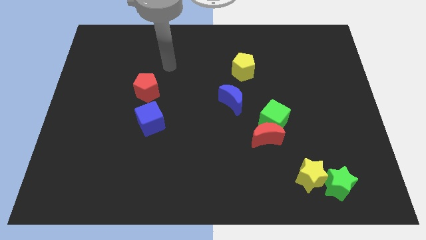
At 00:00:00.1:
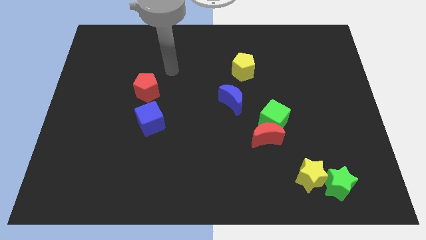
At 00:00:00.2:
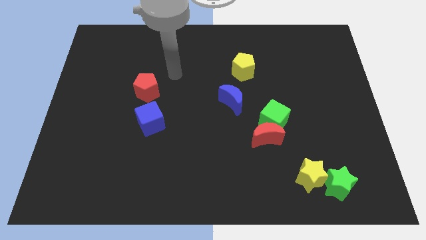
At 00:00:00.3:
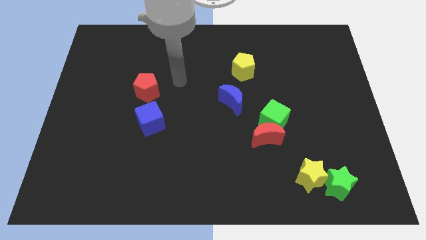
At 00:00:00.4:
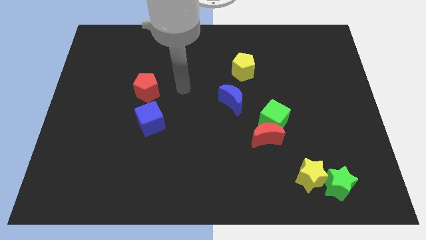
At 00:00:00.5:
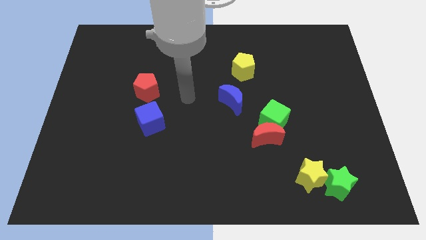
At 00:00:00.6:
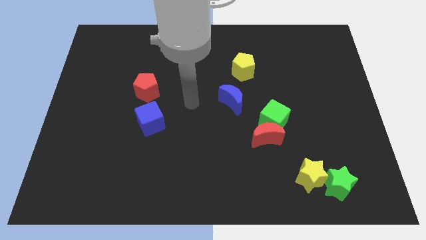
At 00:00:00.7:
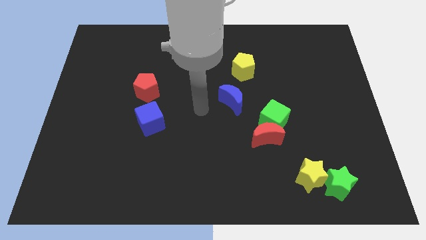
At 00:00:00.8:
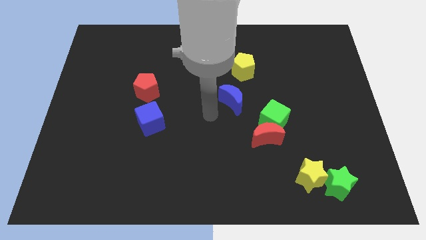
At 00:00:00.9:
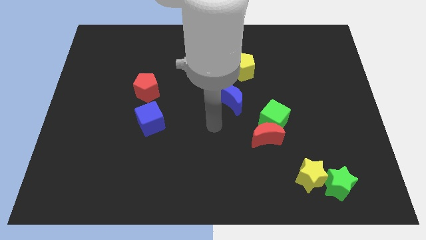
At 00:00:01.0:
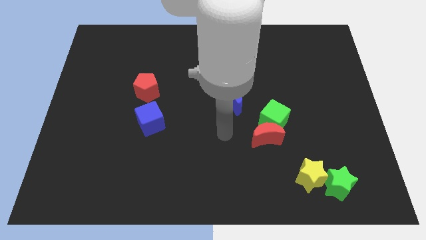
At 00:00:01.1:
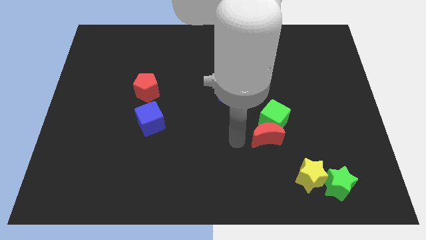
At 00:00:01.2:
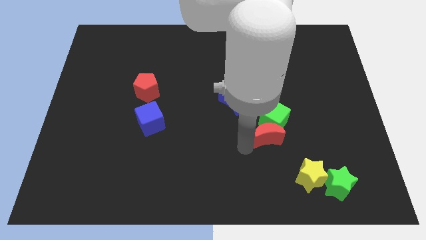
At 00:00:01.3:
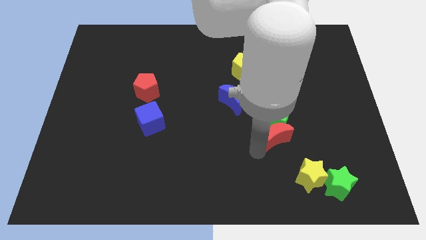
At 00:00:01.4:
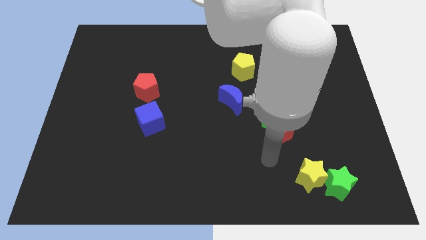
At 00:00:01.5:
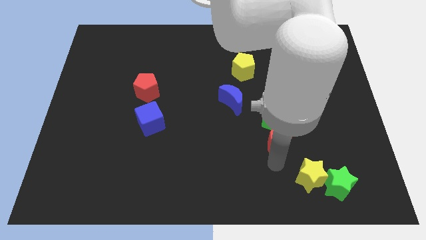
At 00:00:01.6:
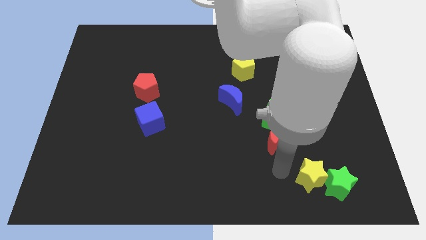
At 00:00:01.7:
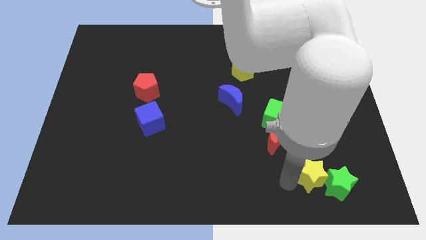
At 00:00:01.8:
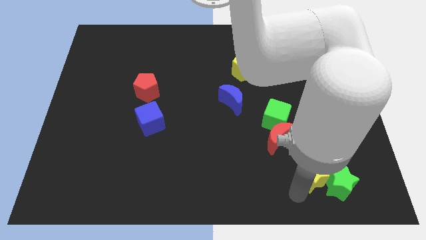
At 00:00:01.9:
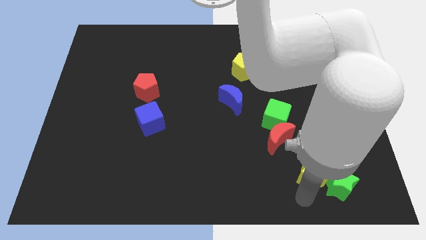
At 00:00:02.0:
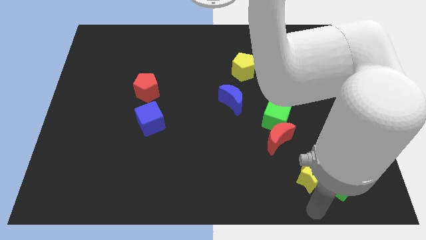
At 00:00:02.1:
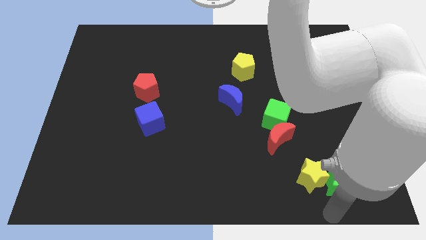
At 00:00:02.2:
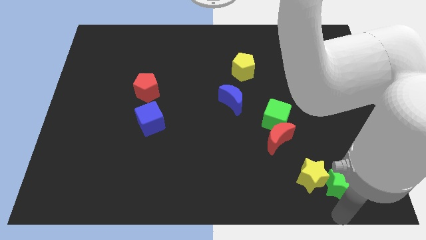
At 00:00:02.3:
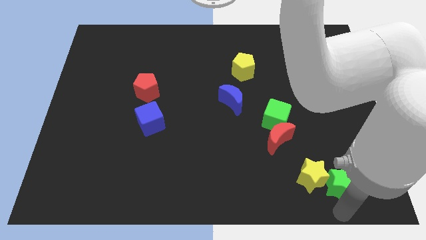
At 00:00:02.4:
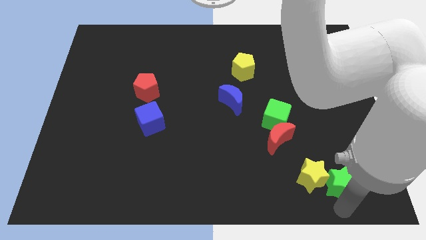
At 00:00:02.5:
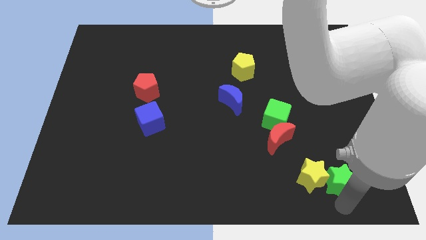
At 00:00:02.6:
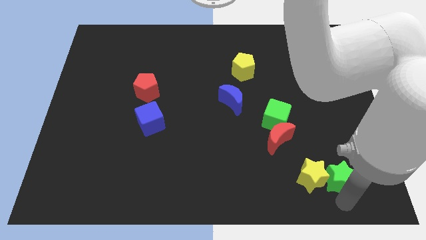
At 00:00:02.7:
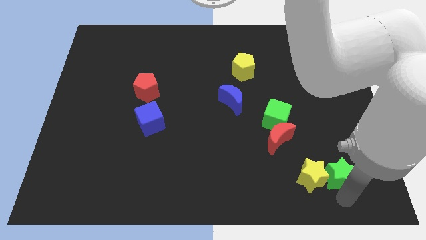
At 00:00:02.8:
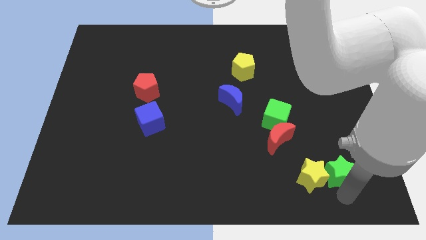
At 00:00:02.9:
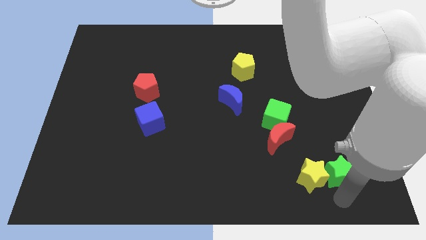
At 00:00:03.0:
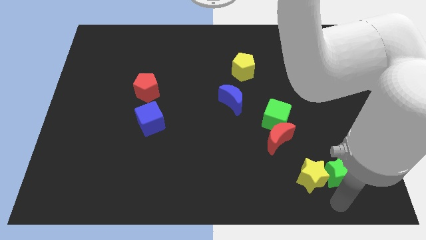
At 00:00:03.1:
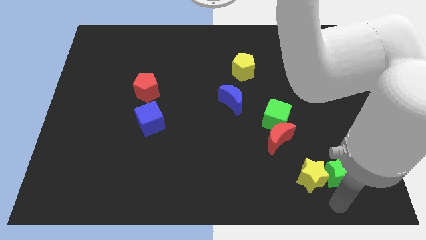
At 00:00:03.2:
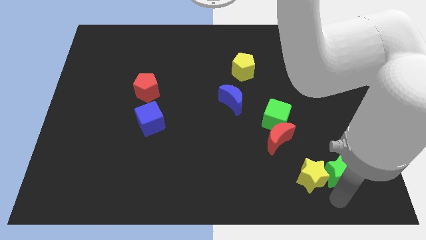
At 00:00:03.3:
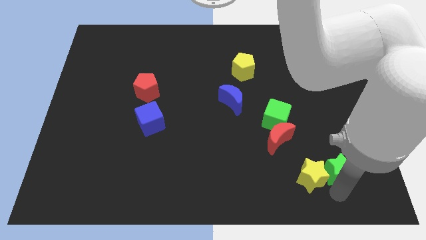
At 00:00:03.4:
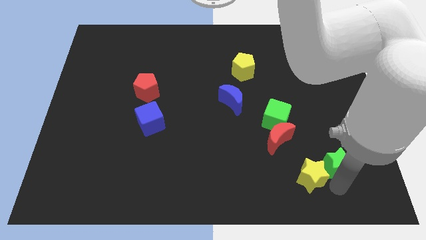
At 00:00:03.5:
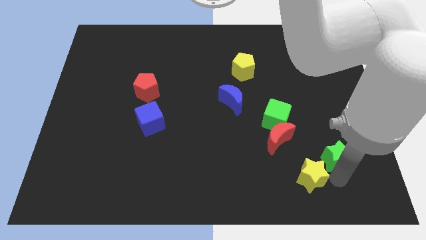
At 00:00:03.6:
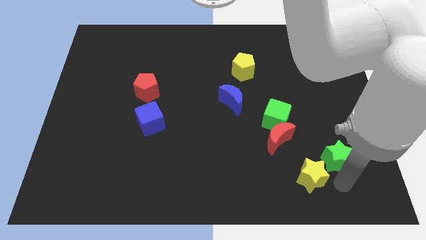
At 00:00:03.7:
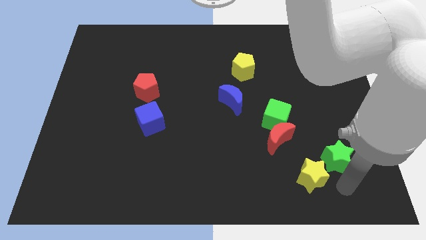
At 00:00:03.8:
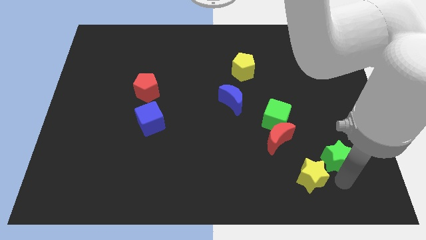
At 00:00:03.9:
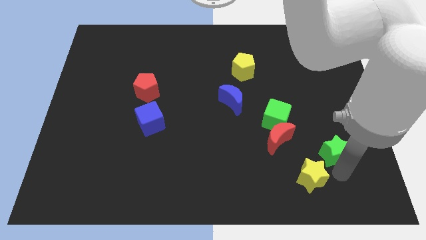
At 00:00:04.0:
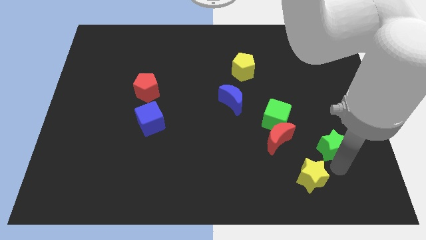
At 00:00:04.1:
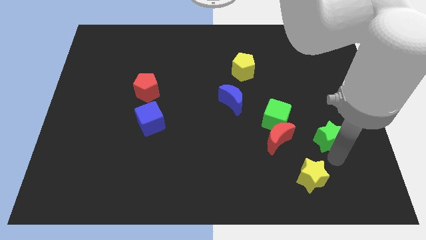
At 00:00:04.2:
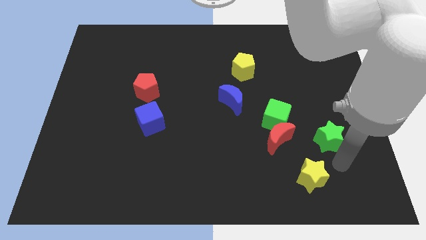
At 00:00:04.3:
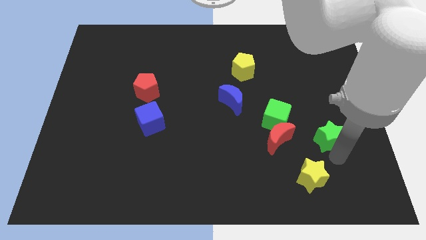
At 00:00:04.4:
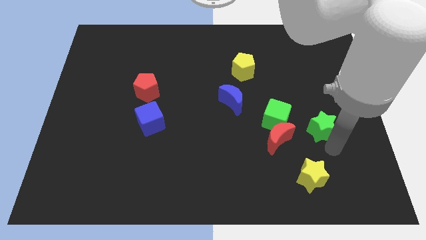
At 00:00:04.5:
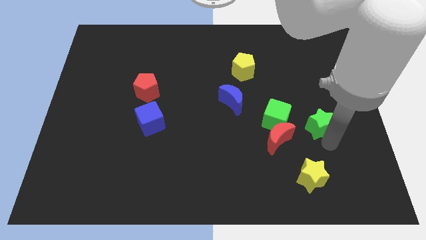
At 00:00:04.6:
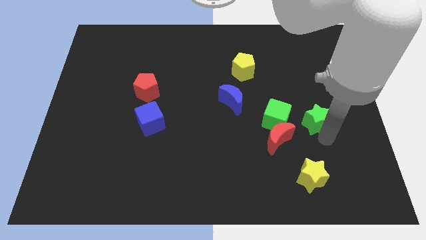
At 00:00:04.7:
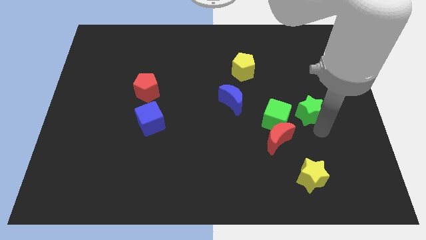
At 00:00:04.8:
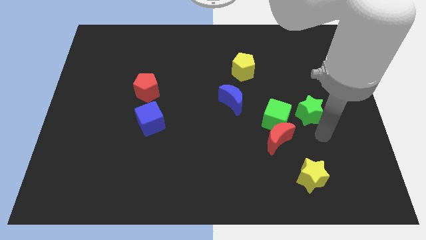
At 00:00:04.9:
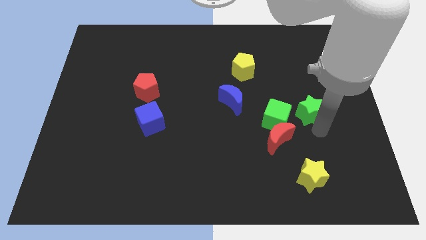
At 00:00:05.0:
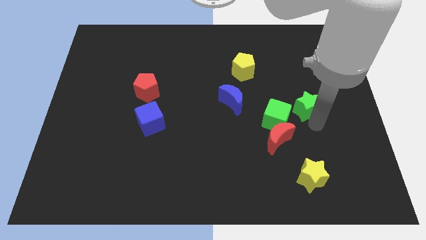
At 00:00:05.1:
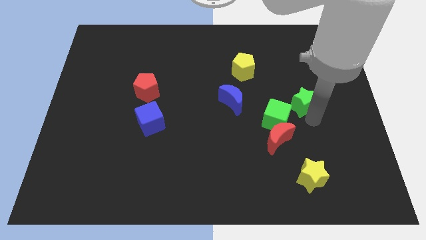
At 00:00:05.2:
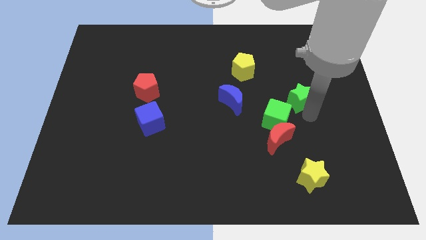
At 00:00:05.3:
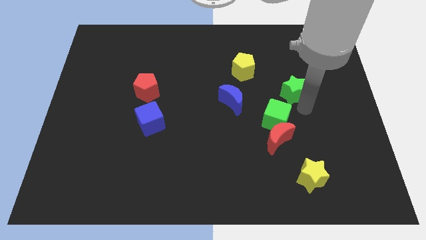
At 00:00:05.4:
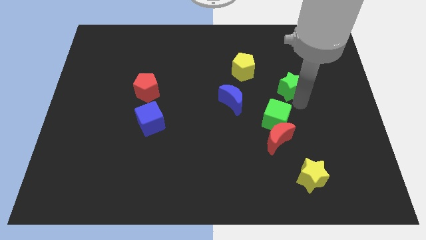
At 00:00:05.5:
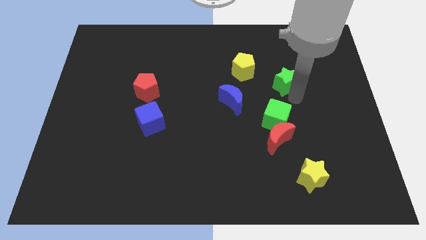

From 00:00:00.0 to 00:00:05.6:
move the green star to the right of the yellow pentagon

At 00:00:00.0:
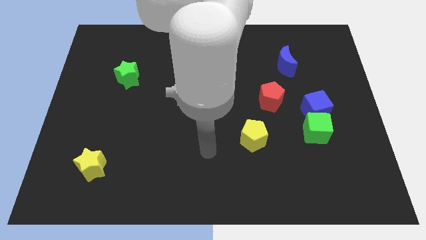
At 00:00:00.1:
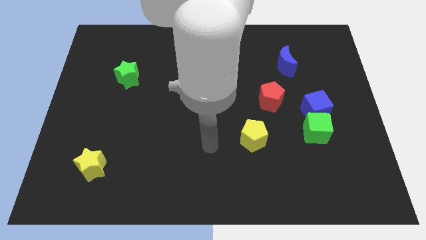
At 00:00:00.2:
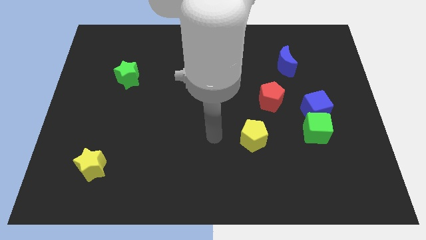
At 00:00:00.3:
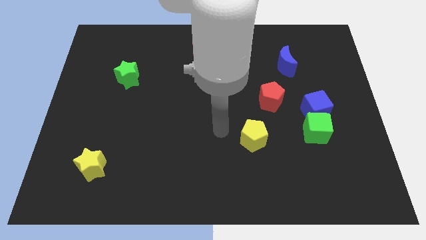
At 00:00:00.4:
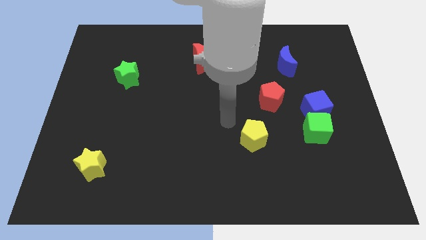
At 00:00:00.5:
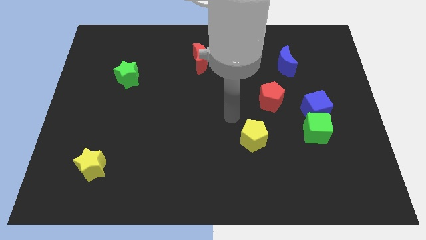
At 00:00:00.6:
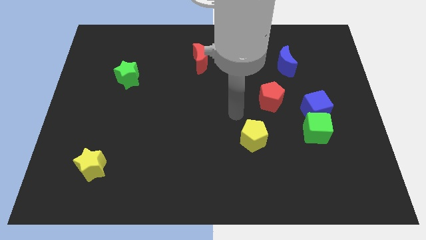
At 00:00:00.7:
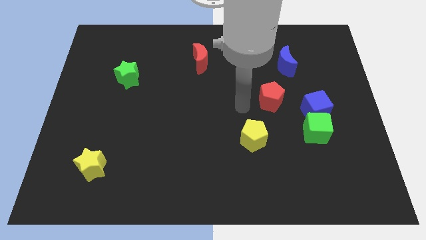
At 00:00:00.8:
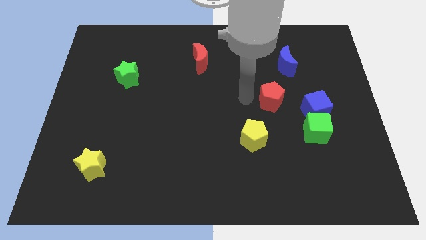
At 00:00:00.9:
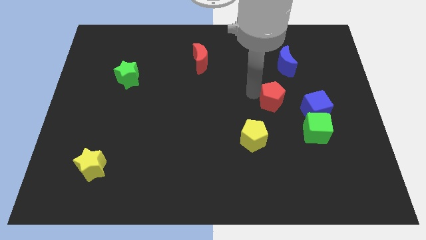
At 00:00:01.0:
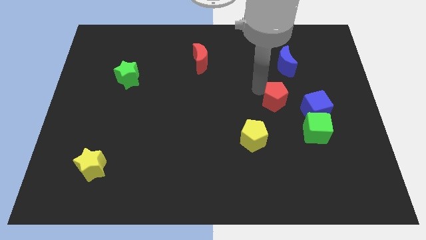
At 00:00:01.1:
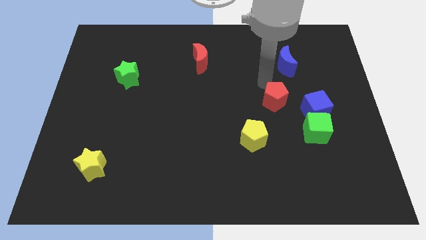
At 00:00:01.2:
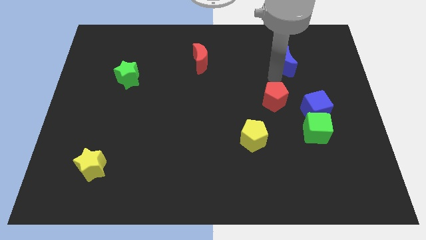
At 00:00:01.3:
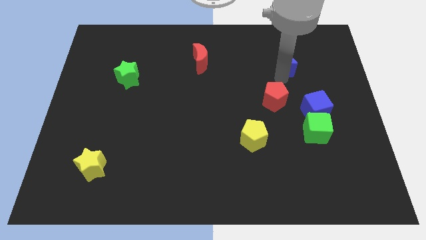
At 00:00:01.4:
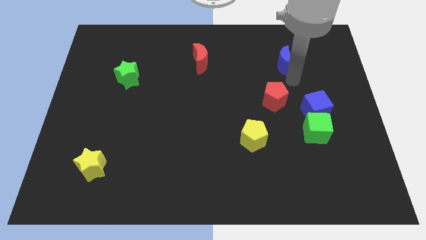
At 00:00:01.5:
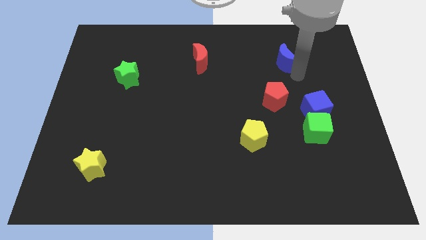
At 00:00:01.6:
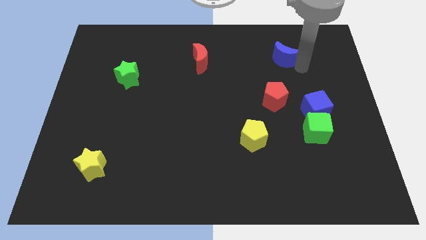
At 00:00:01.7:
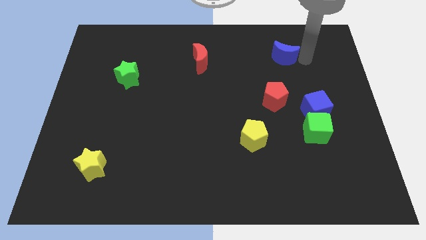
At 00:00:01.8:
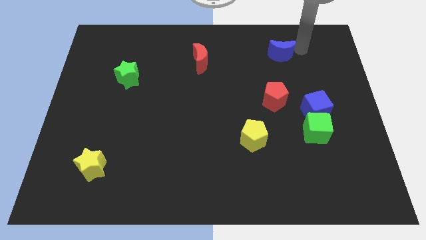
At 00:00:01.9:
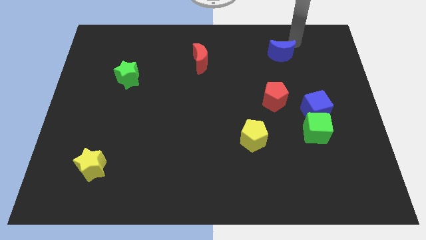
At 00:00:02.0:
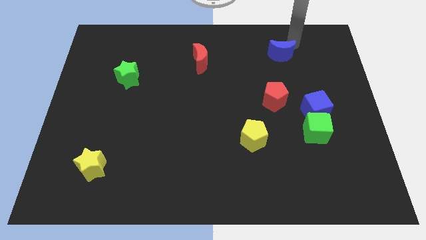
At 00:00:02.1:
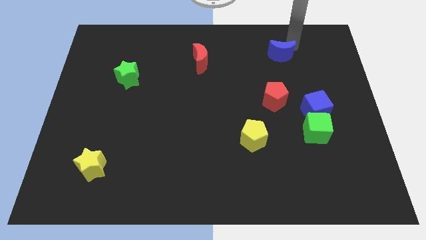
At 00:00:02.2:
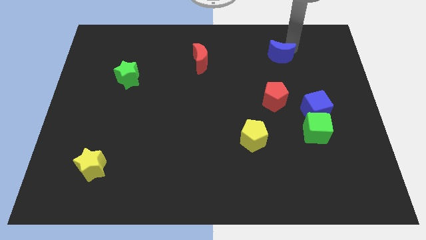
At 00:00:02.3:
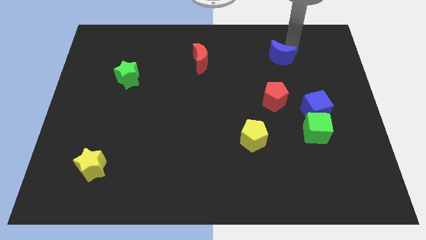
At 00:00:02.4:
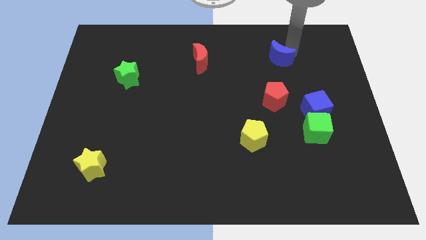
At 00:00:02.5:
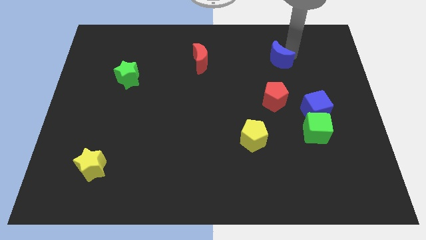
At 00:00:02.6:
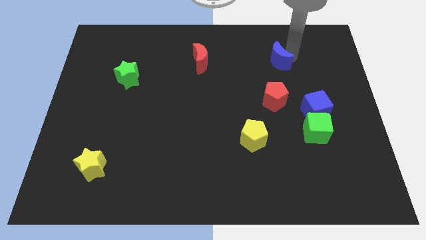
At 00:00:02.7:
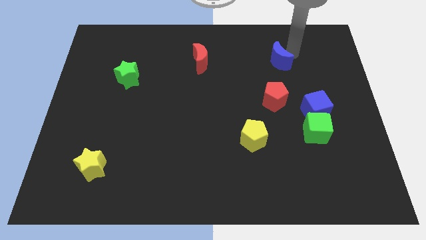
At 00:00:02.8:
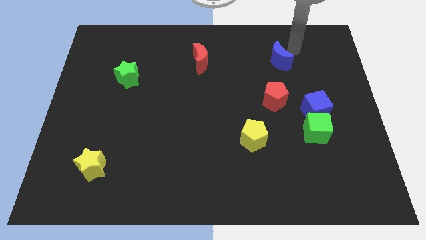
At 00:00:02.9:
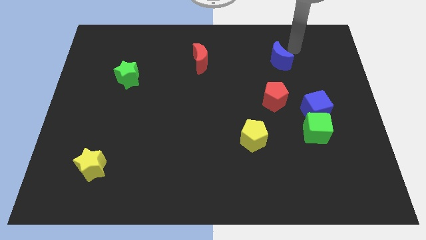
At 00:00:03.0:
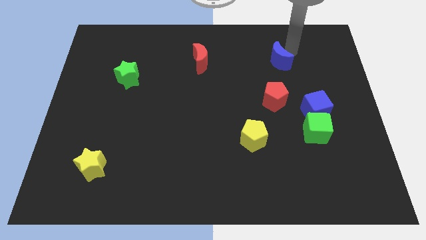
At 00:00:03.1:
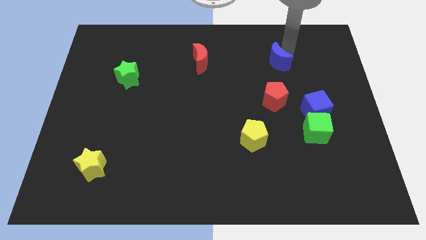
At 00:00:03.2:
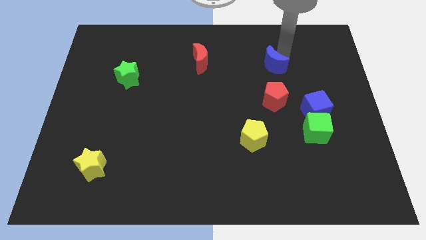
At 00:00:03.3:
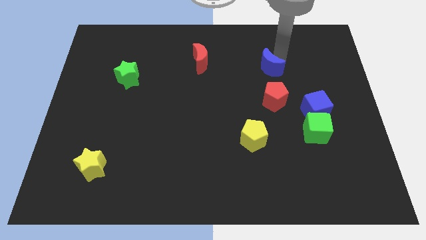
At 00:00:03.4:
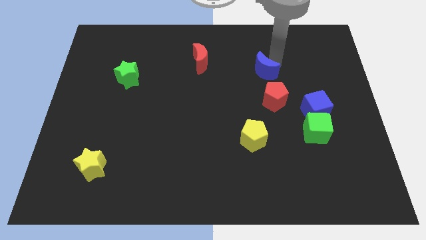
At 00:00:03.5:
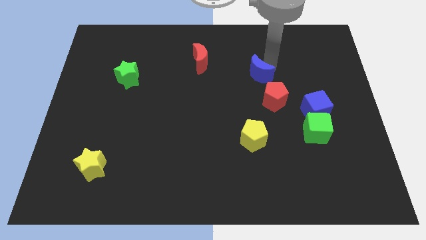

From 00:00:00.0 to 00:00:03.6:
push the blue moon to the top left of the red pentagon
